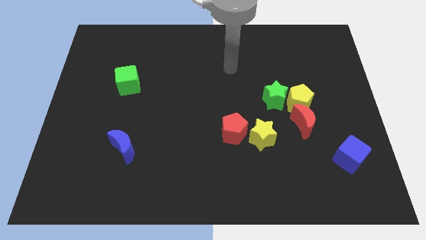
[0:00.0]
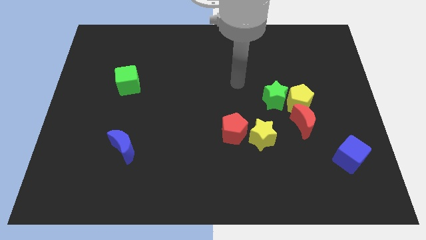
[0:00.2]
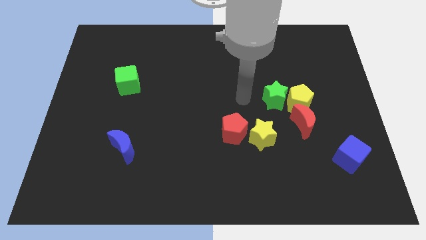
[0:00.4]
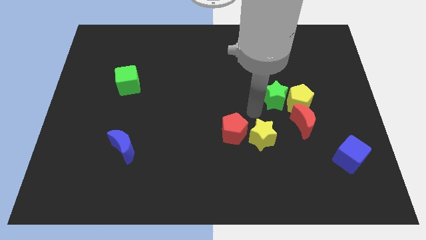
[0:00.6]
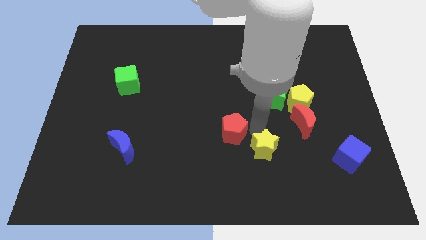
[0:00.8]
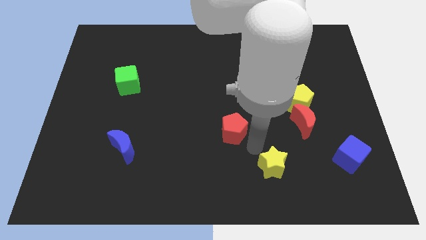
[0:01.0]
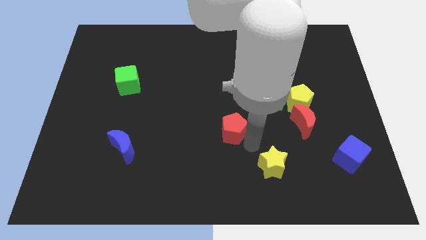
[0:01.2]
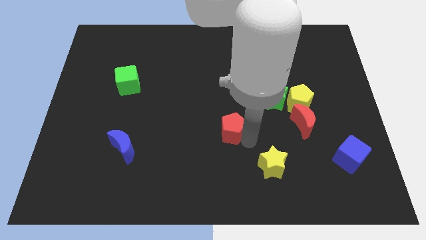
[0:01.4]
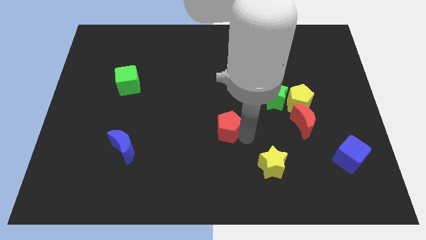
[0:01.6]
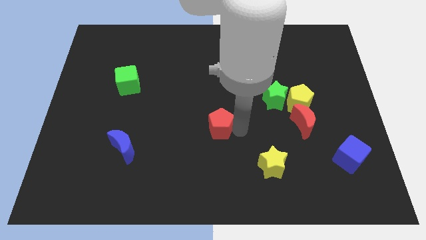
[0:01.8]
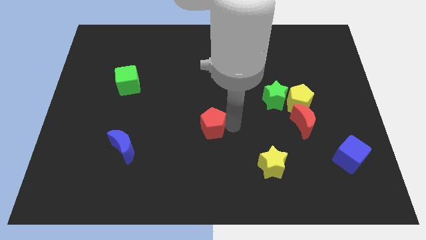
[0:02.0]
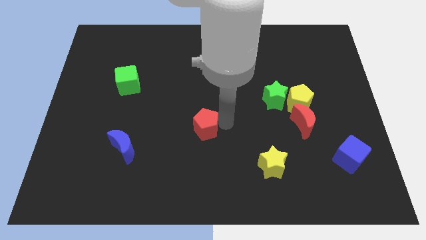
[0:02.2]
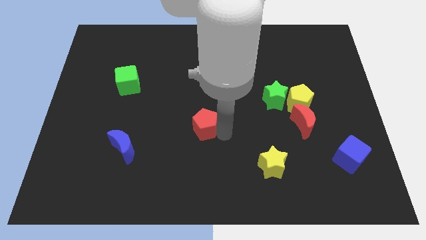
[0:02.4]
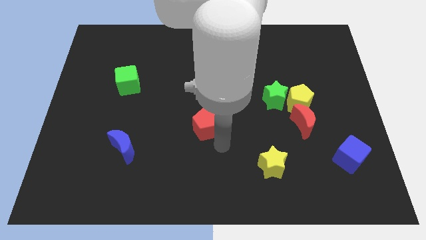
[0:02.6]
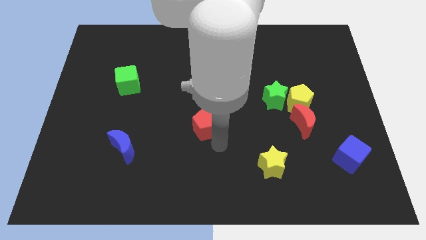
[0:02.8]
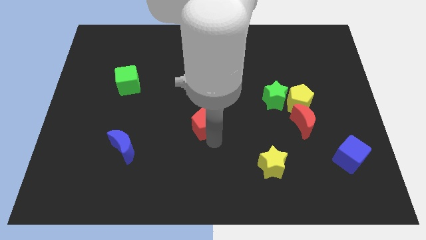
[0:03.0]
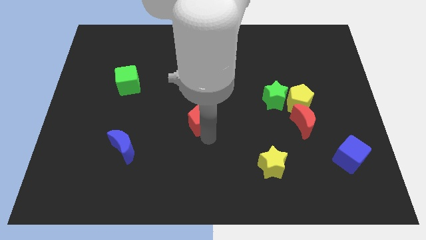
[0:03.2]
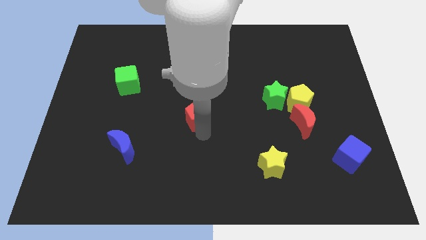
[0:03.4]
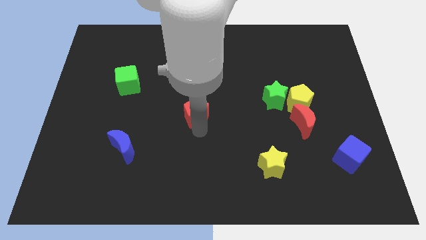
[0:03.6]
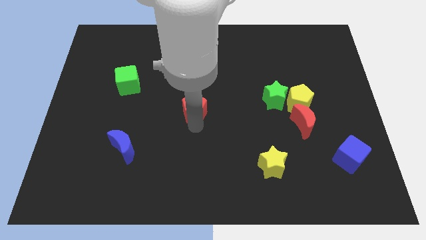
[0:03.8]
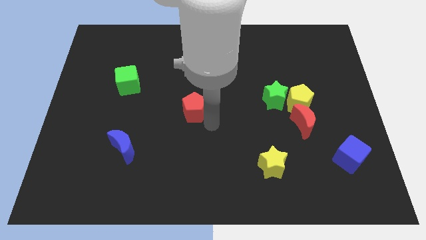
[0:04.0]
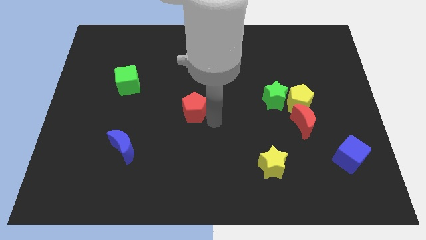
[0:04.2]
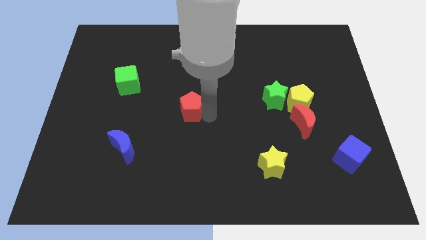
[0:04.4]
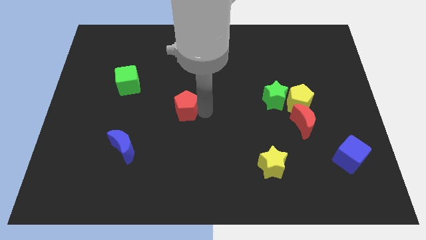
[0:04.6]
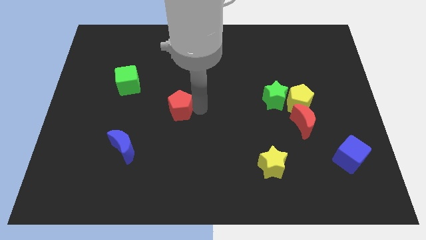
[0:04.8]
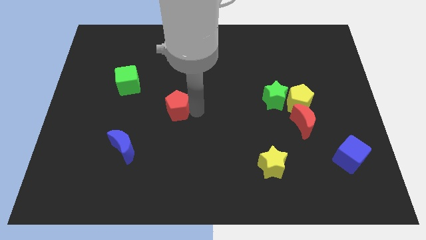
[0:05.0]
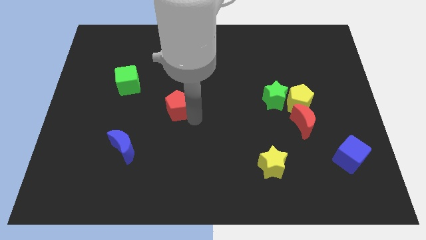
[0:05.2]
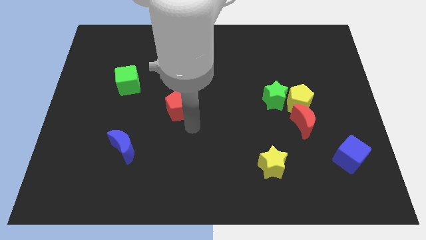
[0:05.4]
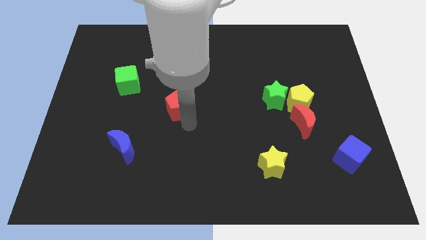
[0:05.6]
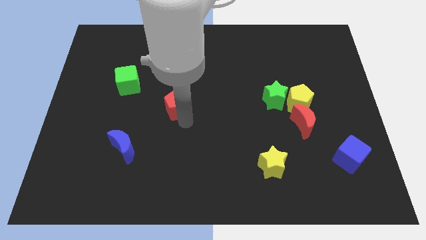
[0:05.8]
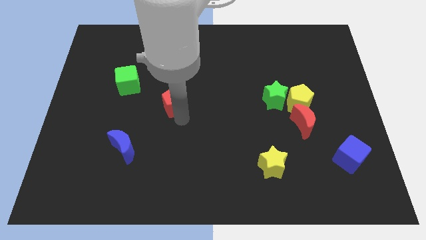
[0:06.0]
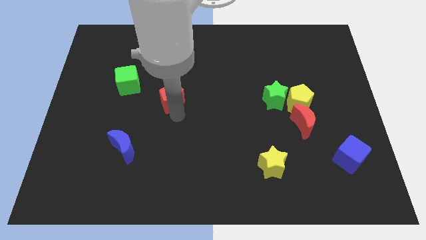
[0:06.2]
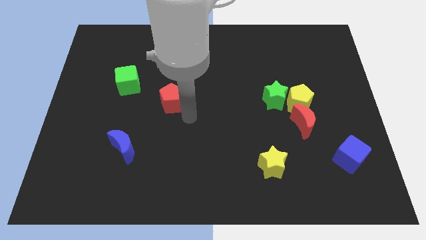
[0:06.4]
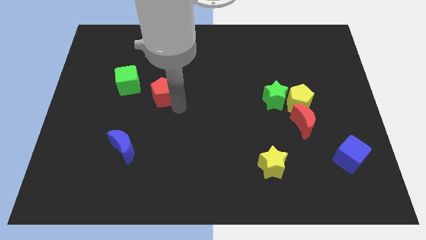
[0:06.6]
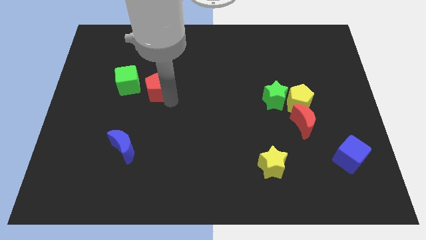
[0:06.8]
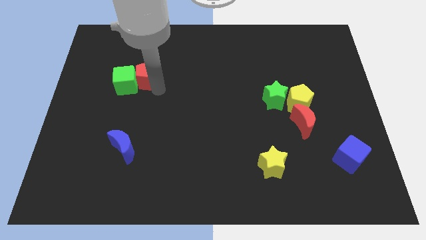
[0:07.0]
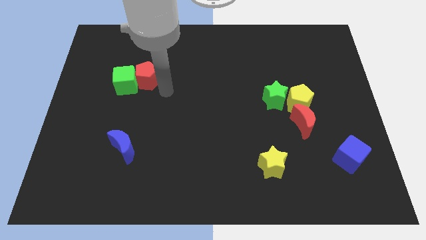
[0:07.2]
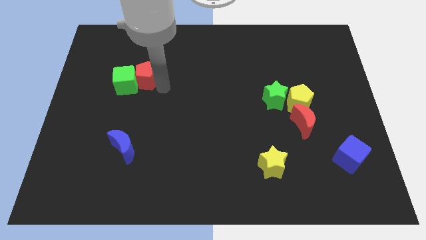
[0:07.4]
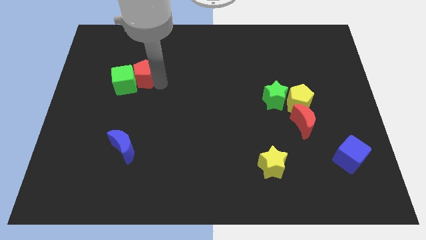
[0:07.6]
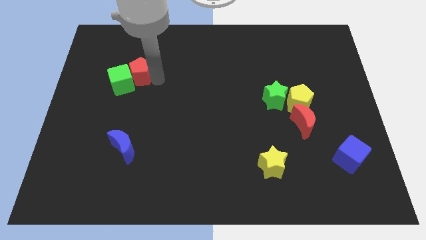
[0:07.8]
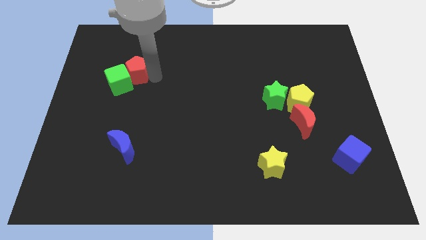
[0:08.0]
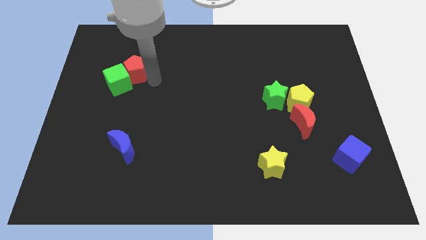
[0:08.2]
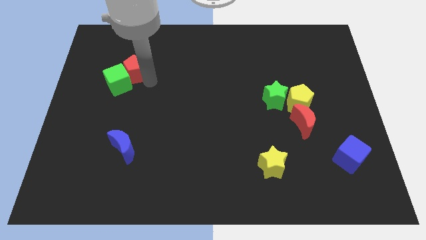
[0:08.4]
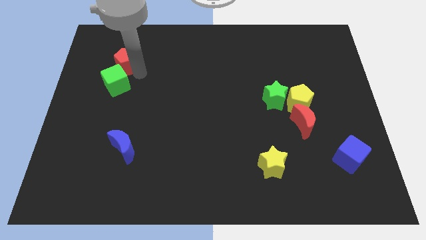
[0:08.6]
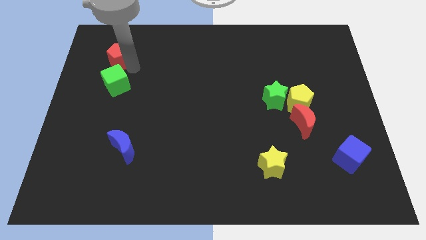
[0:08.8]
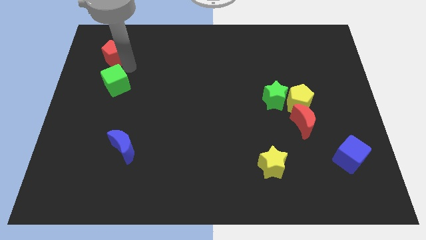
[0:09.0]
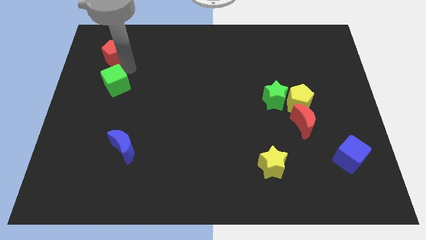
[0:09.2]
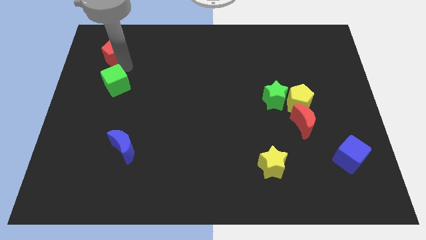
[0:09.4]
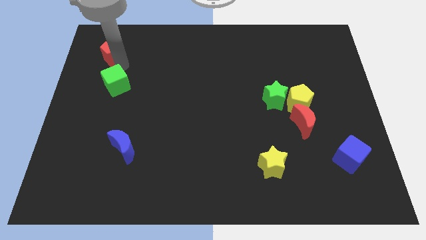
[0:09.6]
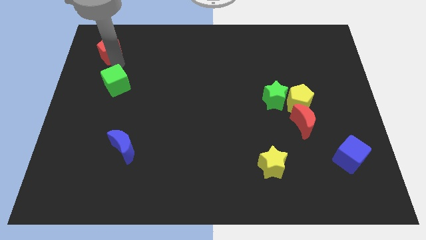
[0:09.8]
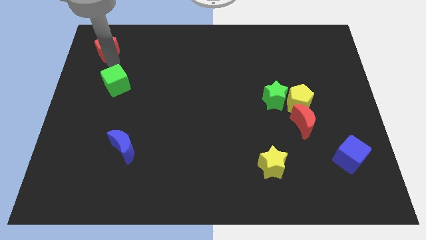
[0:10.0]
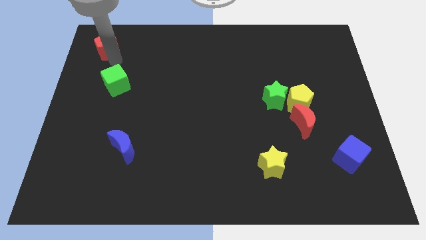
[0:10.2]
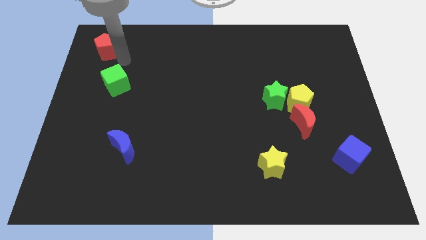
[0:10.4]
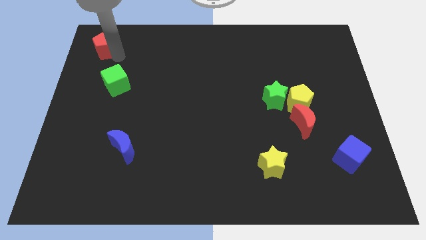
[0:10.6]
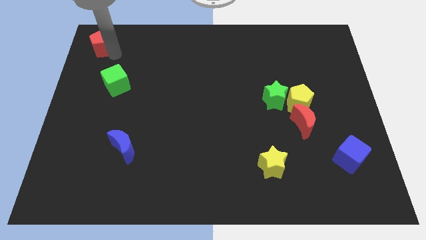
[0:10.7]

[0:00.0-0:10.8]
push the red pentagon to the top left corner
